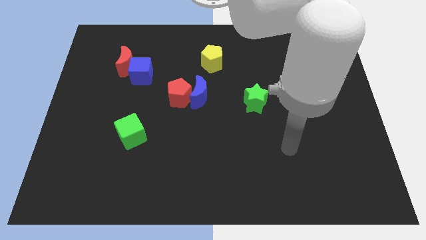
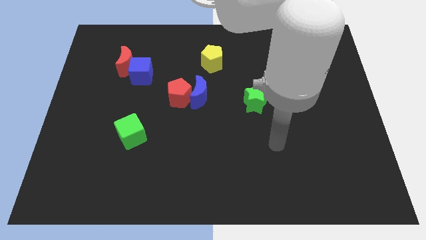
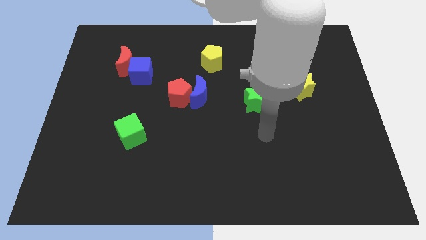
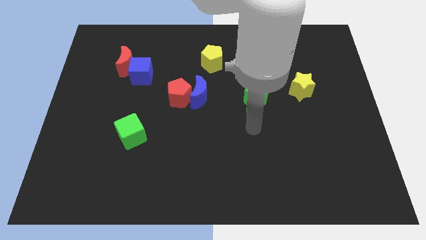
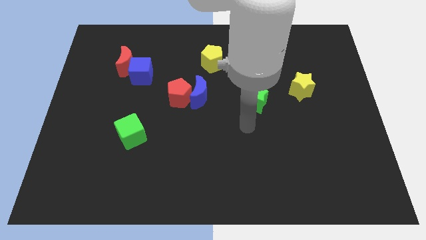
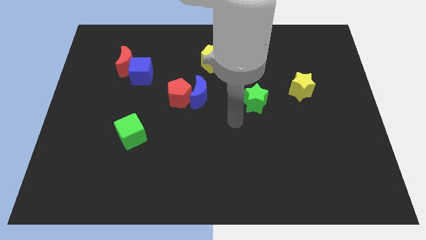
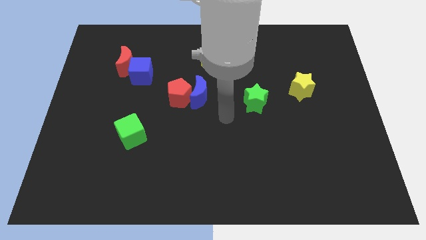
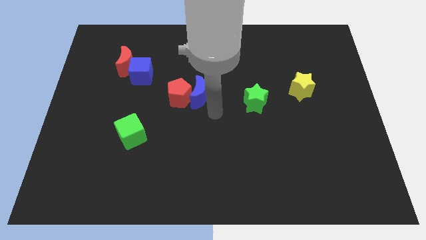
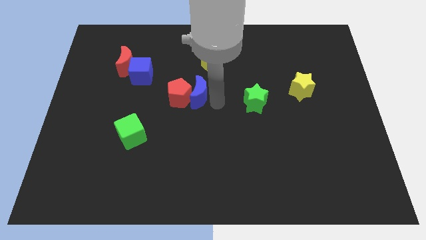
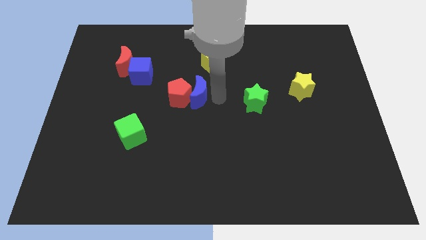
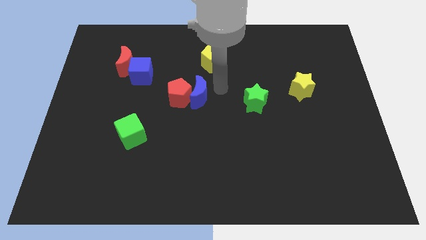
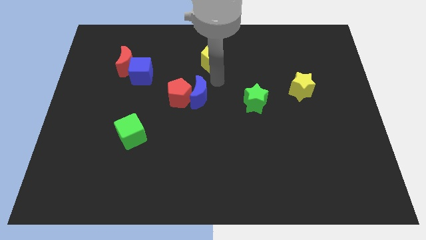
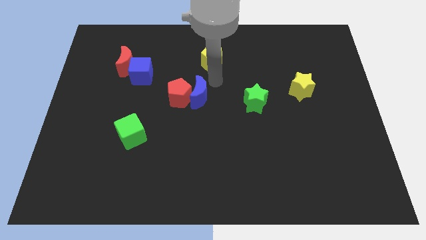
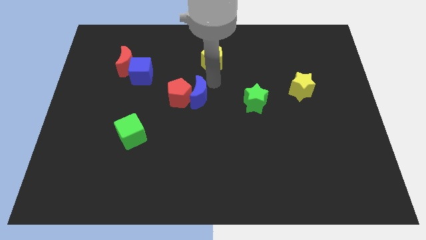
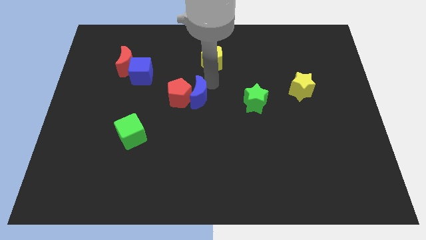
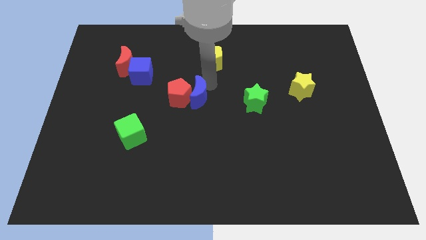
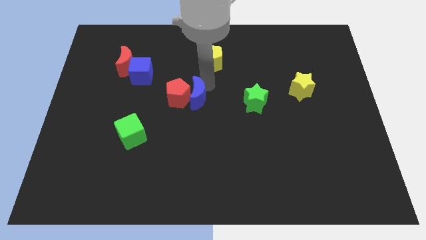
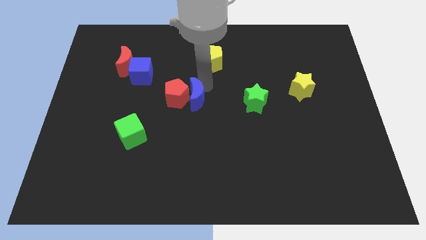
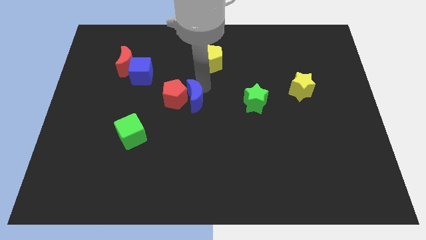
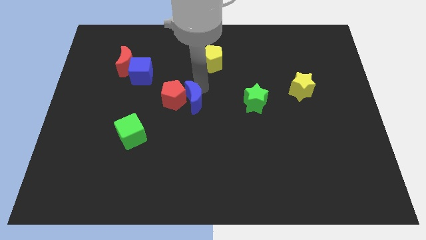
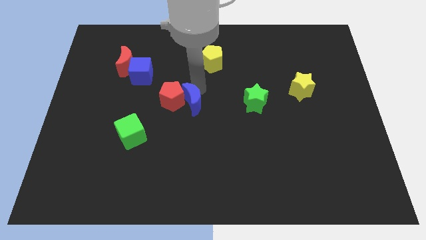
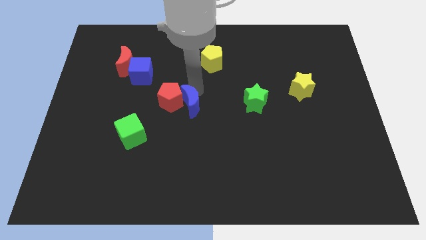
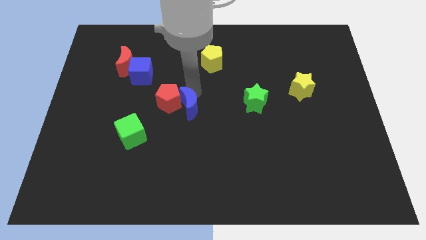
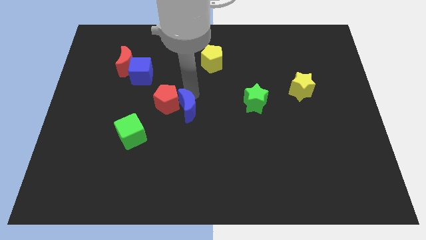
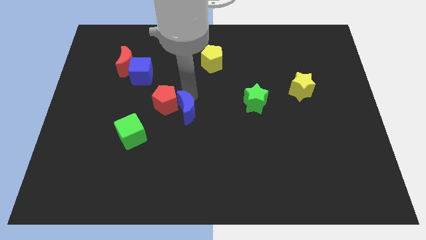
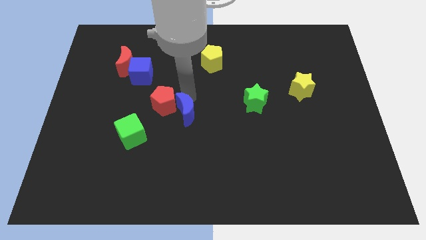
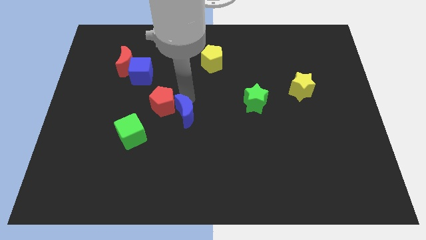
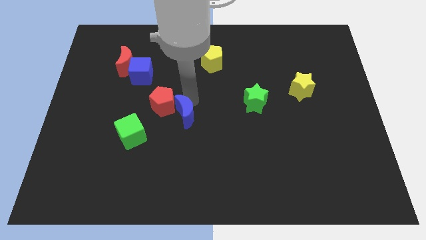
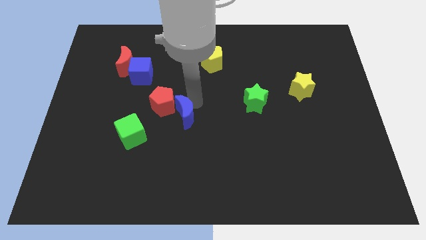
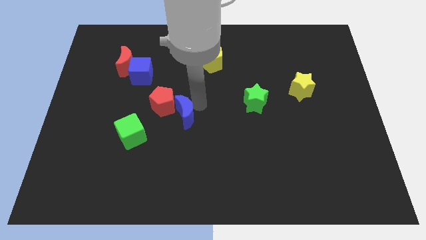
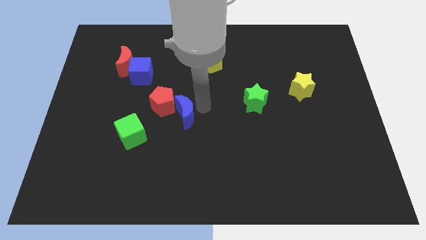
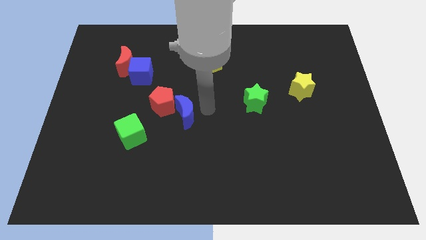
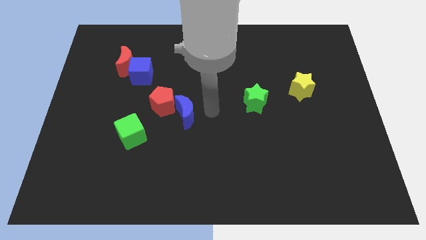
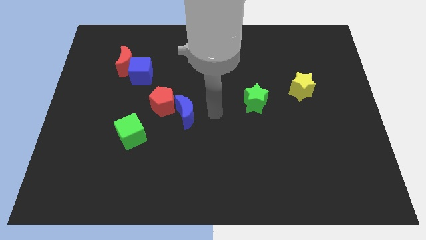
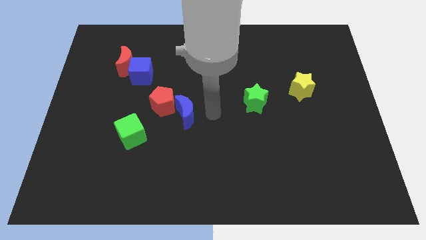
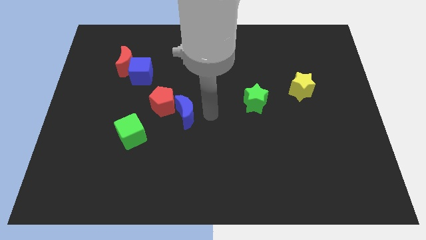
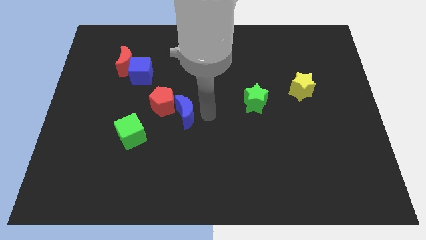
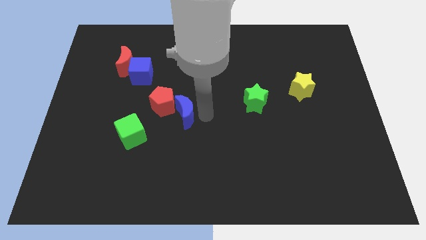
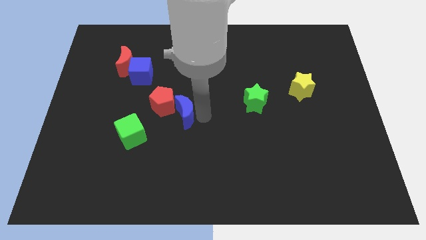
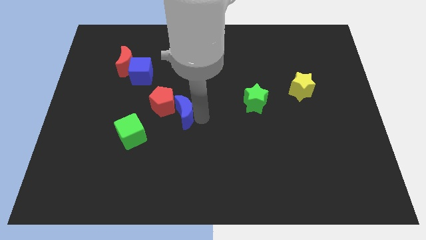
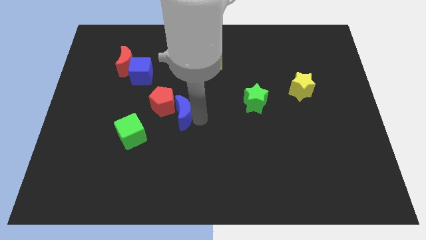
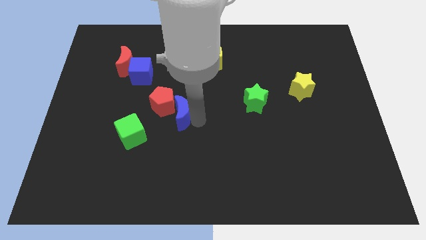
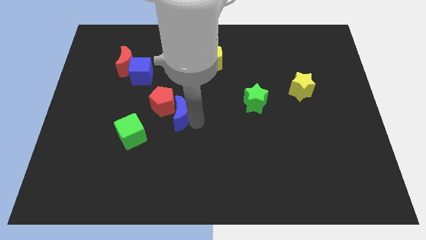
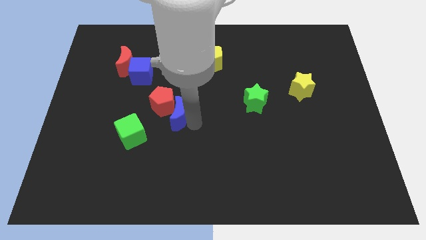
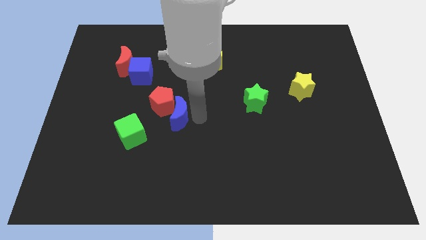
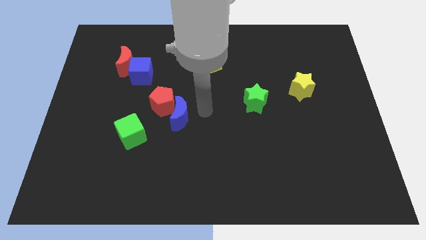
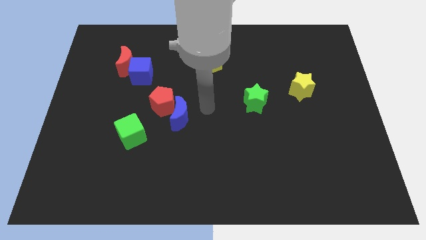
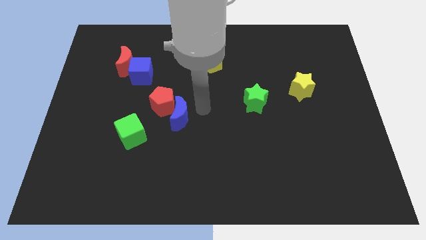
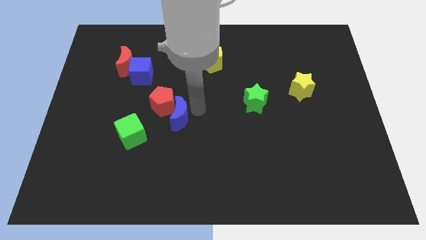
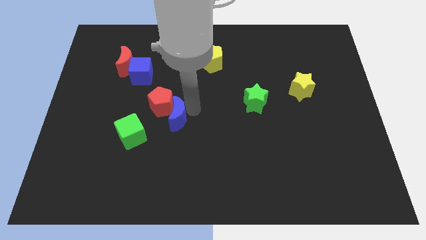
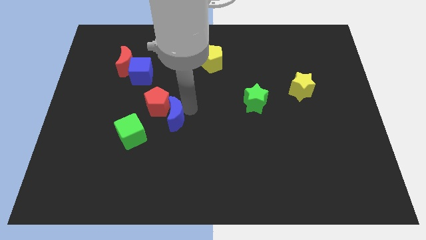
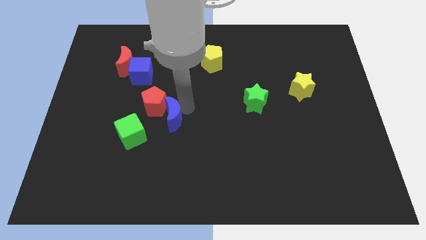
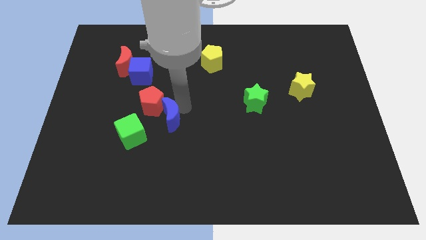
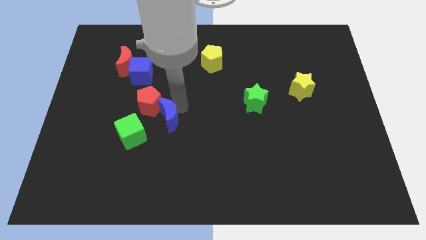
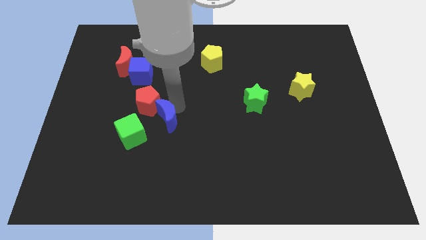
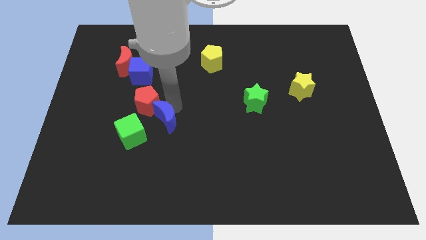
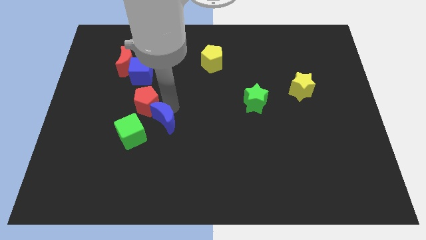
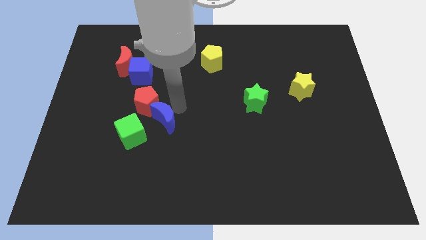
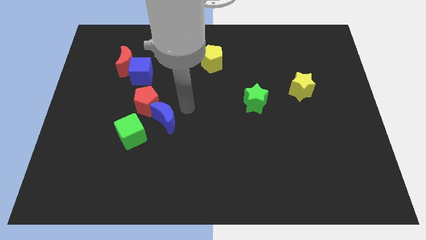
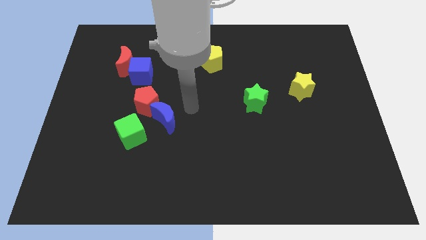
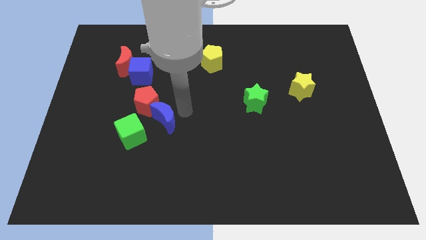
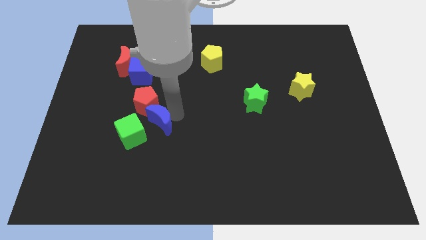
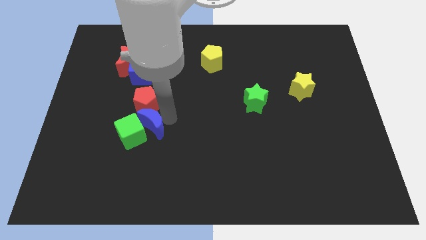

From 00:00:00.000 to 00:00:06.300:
push the blue moon towards the green cube

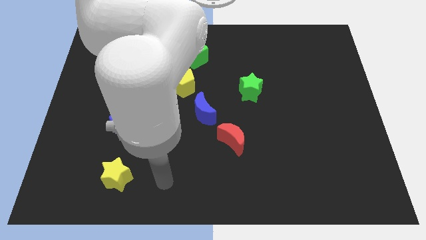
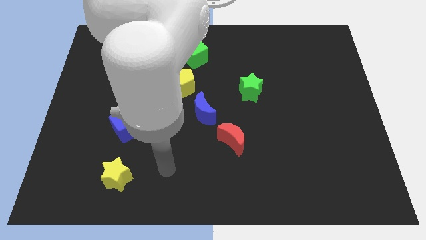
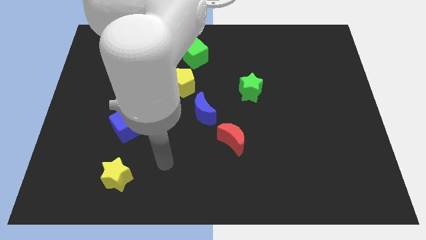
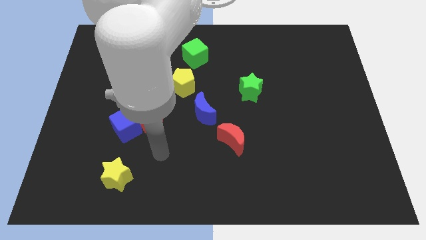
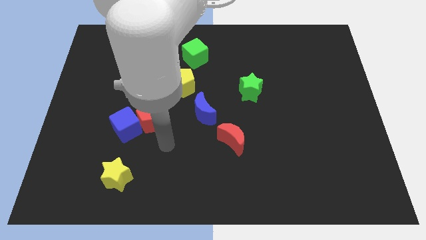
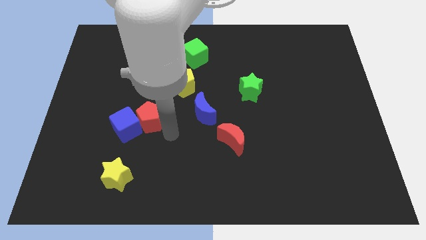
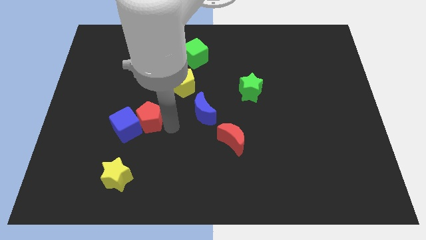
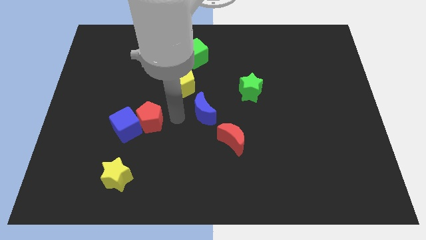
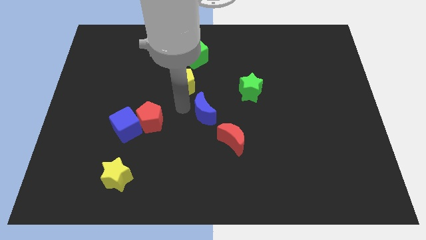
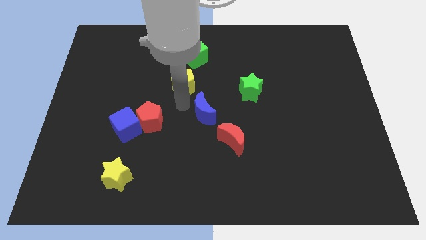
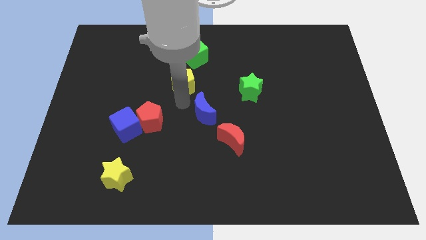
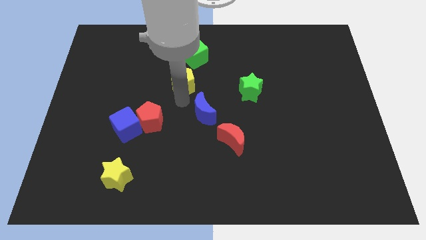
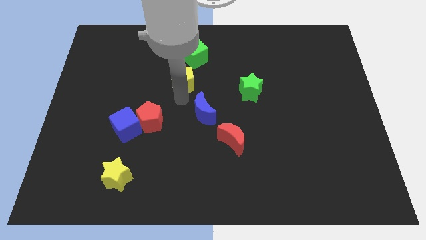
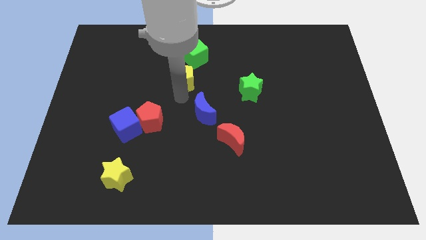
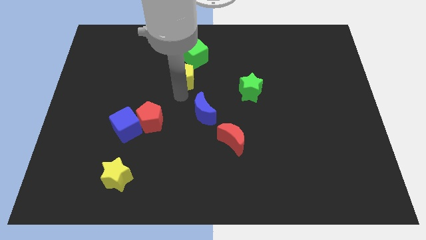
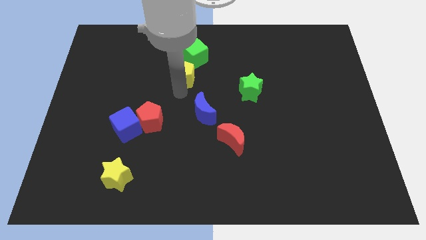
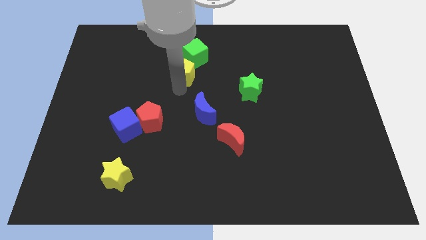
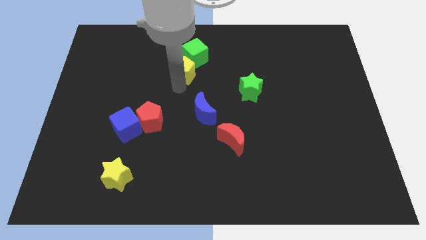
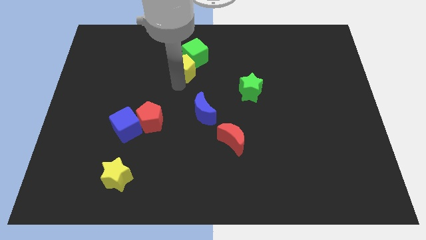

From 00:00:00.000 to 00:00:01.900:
move the yellow pentagon close to the green cube
